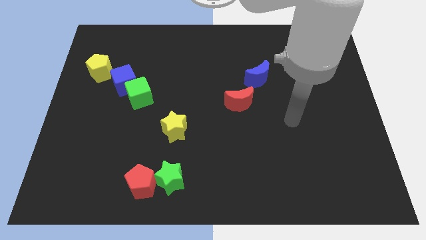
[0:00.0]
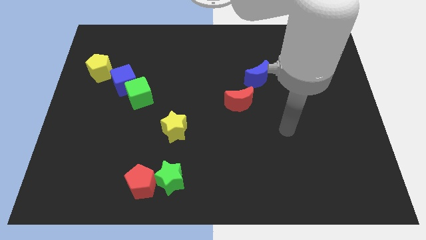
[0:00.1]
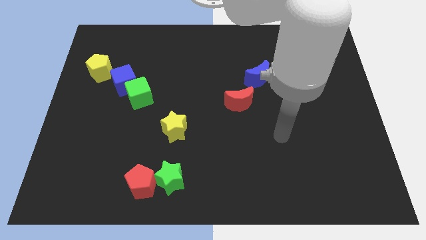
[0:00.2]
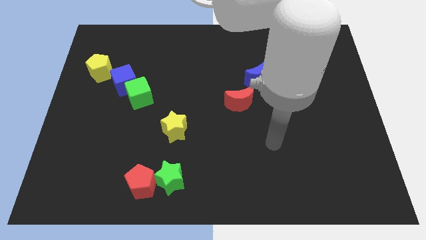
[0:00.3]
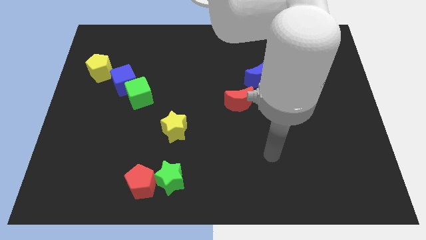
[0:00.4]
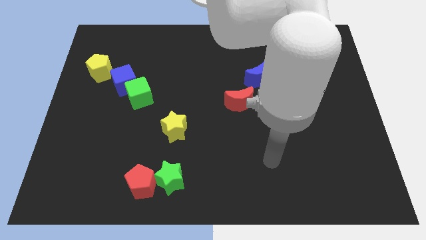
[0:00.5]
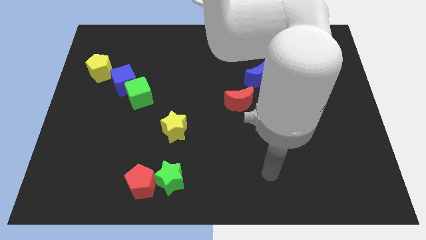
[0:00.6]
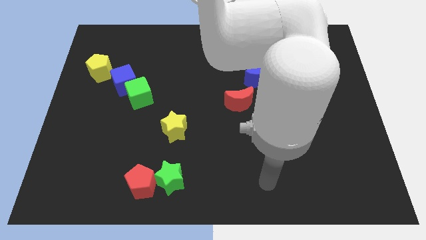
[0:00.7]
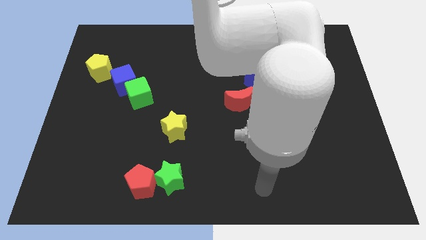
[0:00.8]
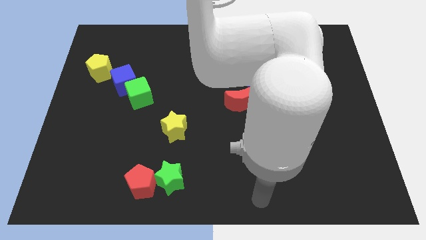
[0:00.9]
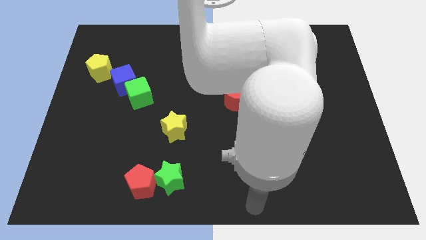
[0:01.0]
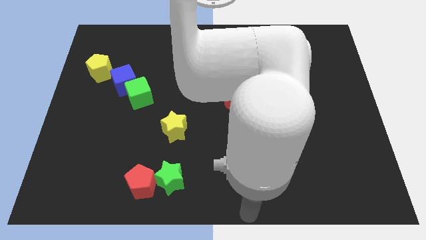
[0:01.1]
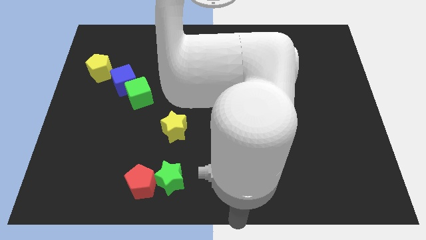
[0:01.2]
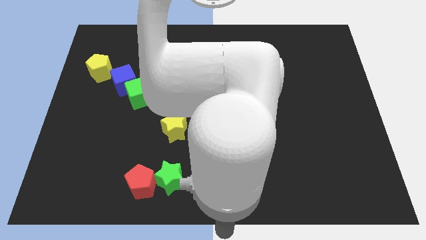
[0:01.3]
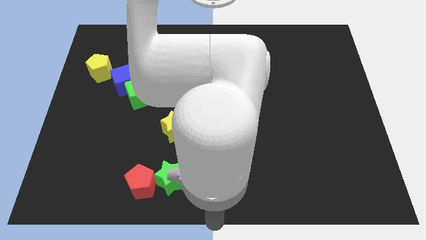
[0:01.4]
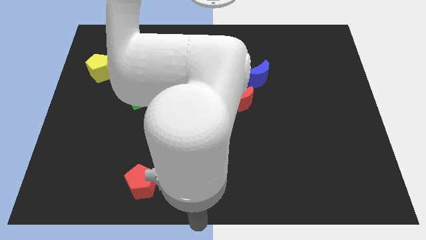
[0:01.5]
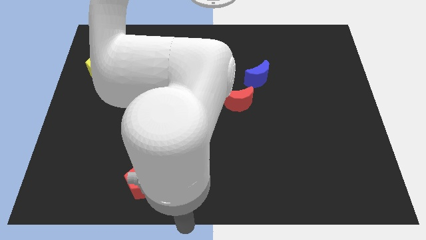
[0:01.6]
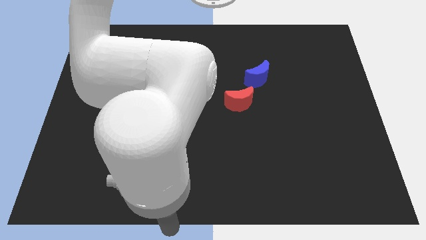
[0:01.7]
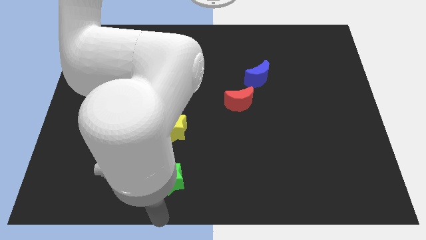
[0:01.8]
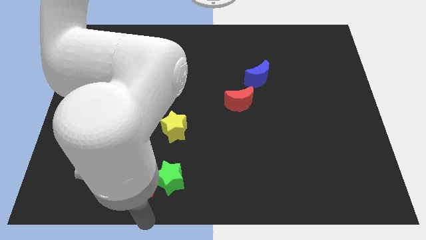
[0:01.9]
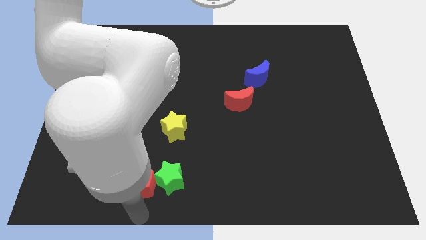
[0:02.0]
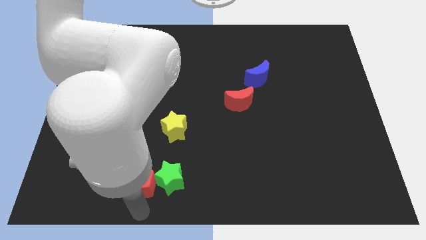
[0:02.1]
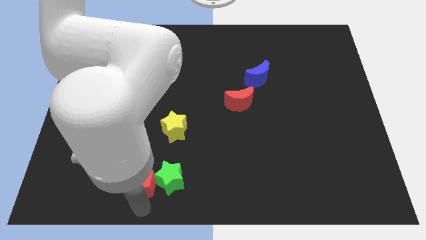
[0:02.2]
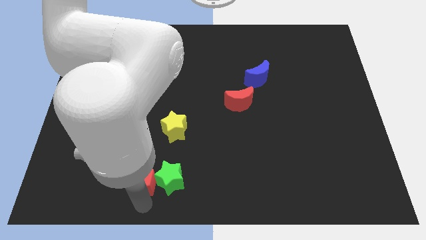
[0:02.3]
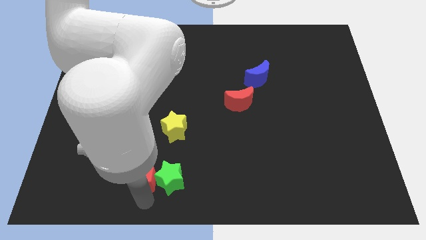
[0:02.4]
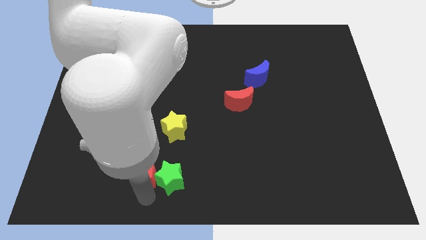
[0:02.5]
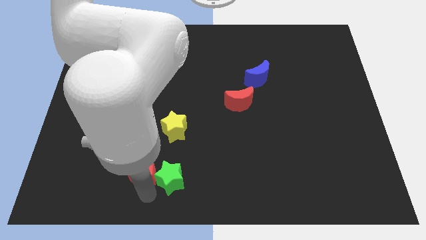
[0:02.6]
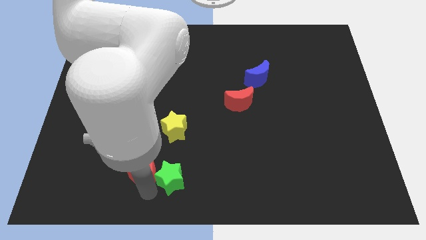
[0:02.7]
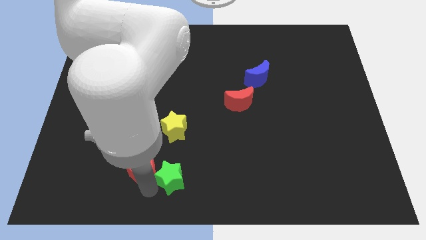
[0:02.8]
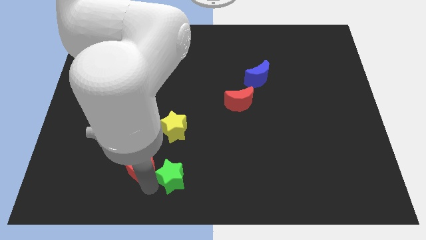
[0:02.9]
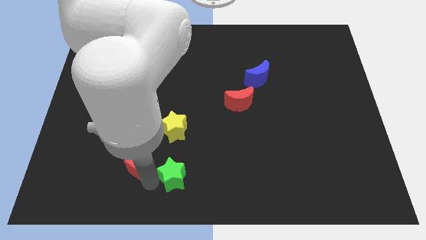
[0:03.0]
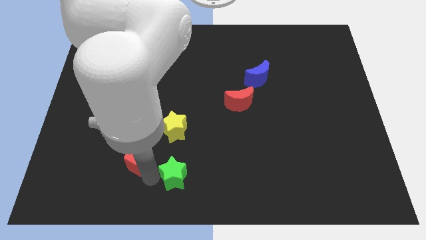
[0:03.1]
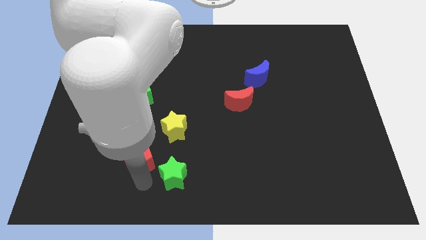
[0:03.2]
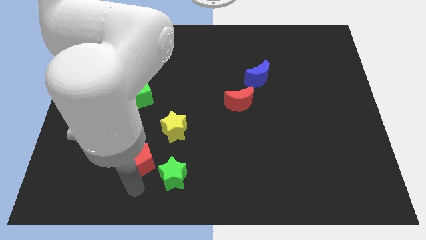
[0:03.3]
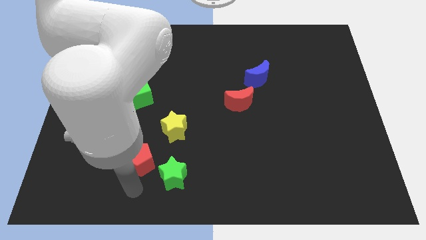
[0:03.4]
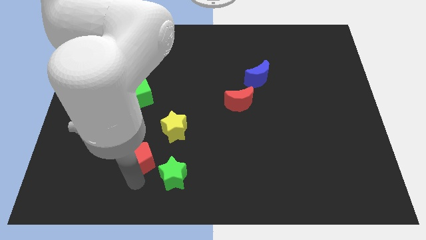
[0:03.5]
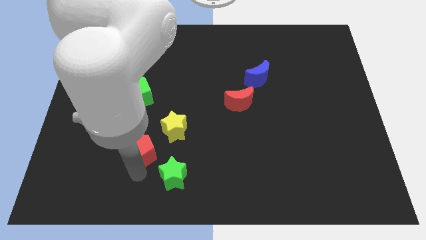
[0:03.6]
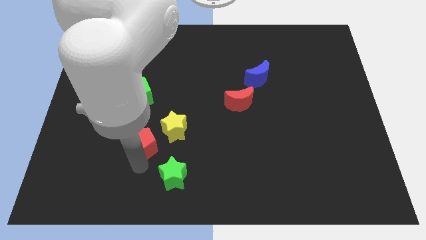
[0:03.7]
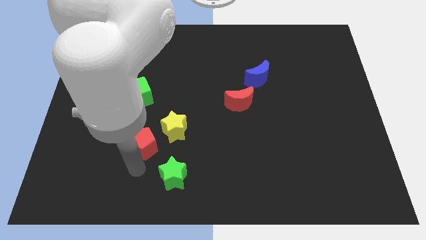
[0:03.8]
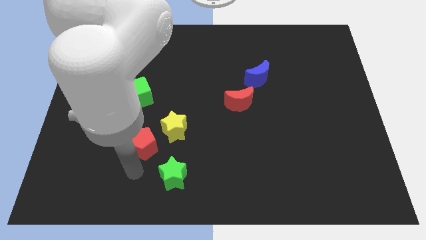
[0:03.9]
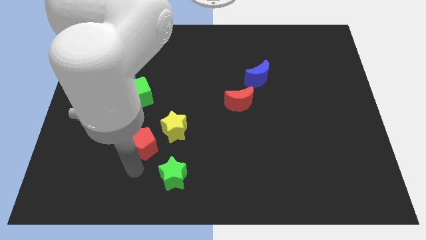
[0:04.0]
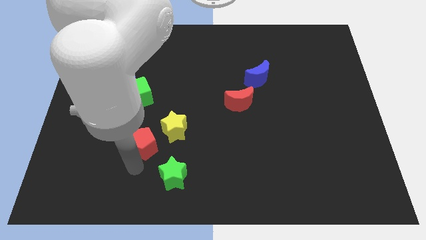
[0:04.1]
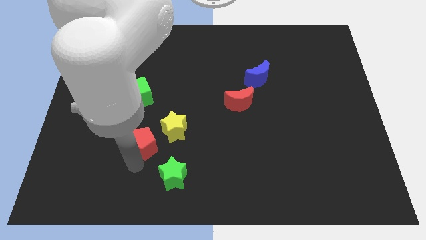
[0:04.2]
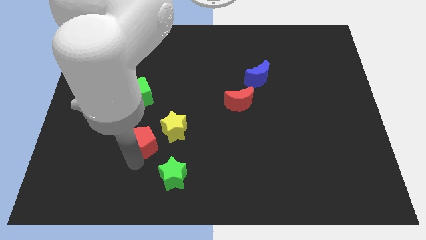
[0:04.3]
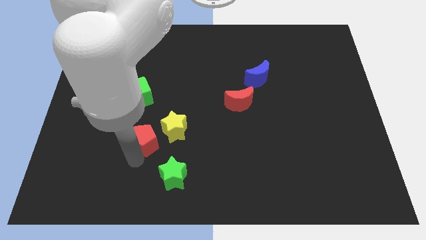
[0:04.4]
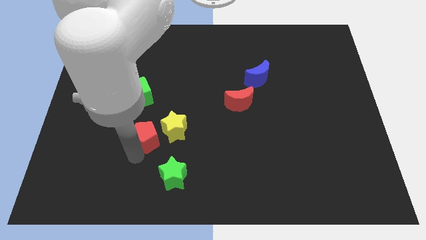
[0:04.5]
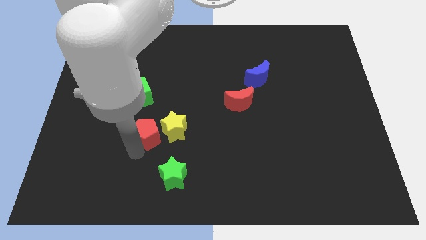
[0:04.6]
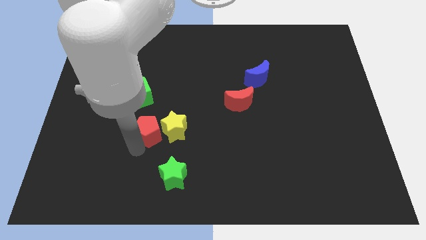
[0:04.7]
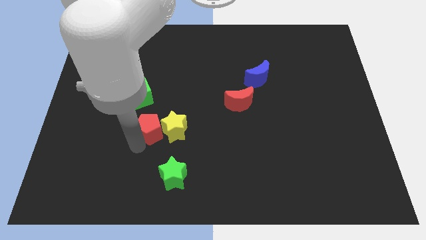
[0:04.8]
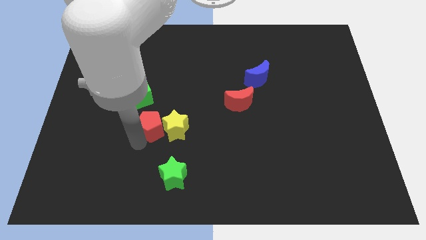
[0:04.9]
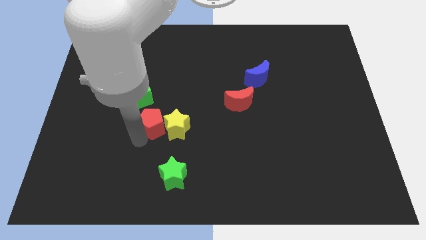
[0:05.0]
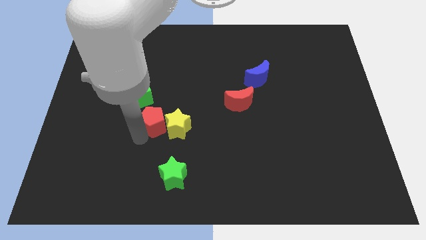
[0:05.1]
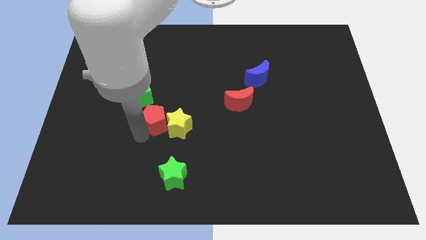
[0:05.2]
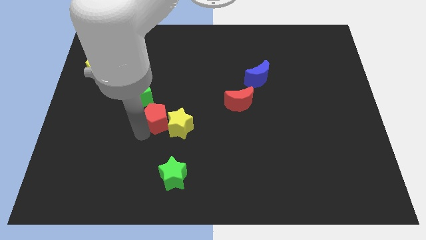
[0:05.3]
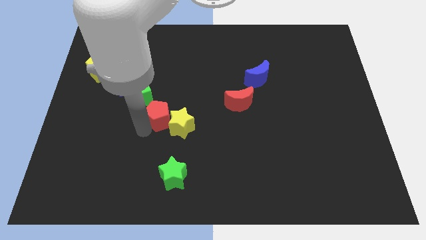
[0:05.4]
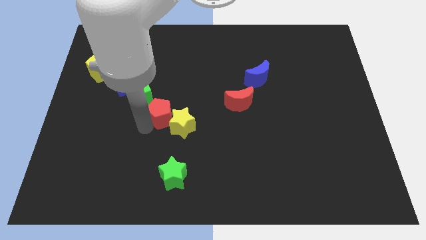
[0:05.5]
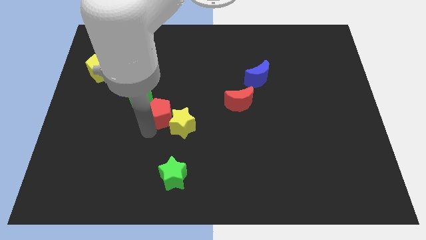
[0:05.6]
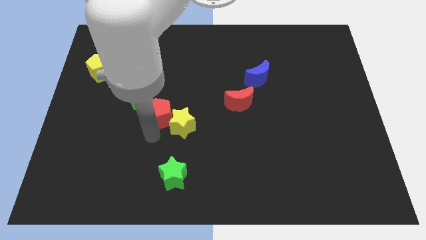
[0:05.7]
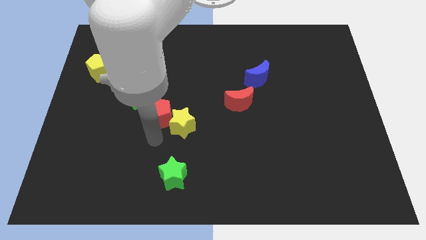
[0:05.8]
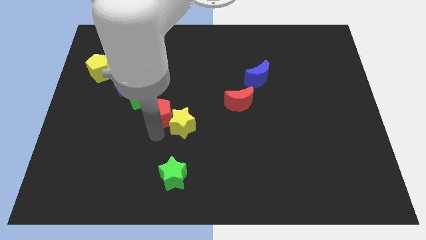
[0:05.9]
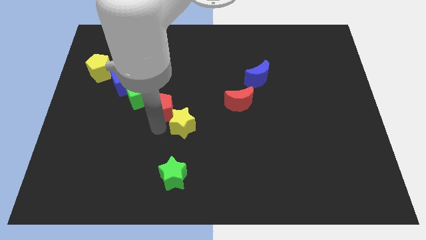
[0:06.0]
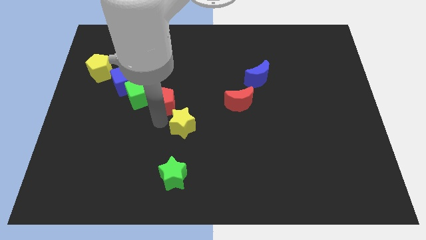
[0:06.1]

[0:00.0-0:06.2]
slide the red pentagon upwards

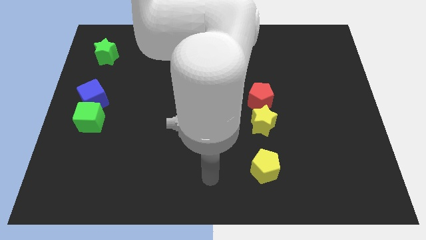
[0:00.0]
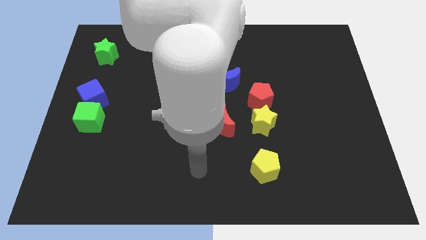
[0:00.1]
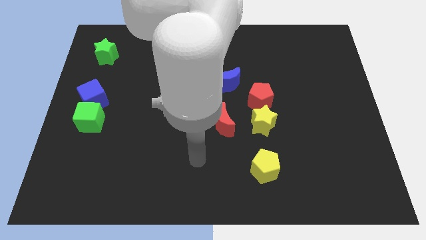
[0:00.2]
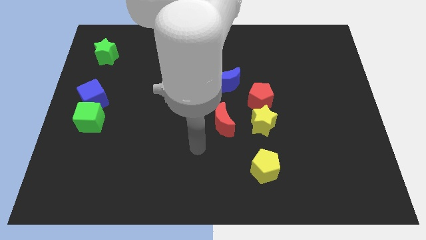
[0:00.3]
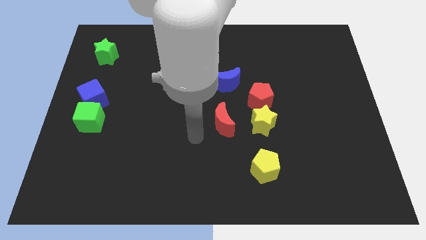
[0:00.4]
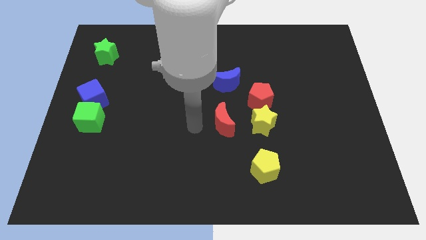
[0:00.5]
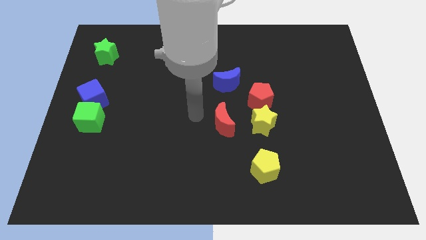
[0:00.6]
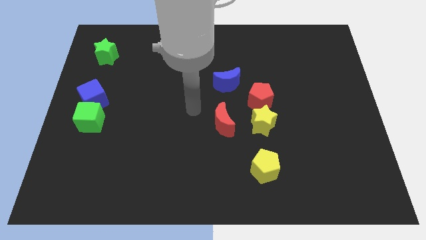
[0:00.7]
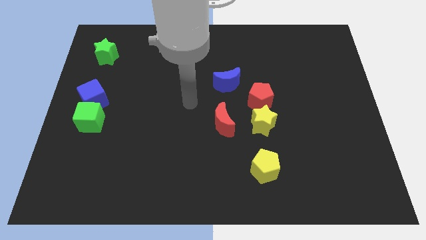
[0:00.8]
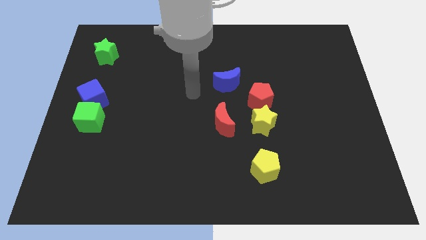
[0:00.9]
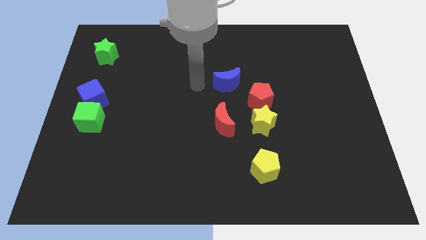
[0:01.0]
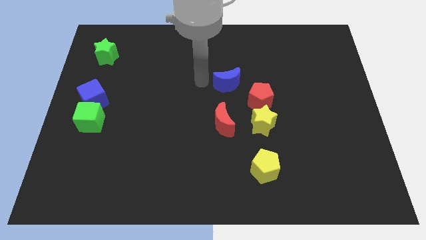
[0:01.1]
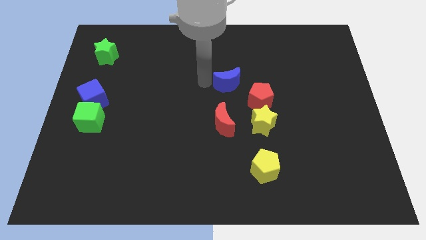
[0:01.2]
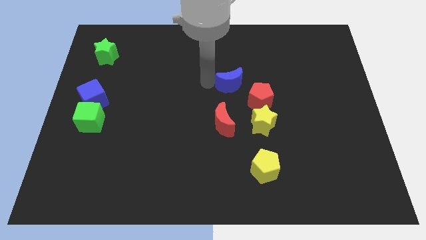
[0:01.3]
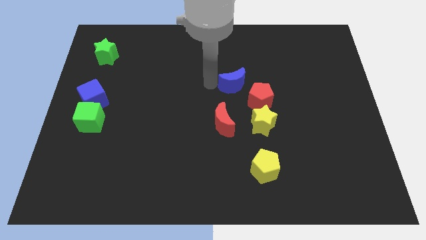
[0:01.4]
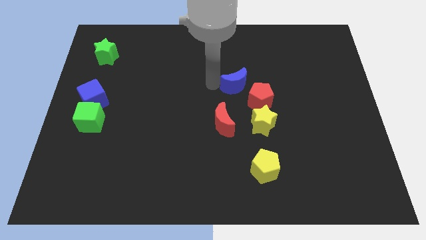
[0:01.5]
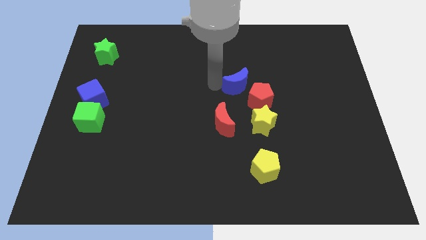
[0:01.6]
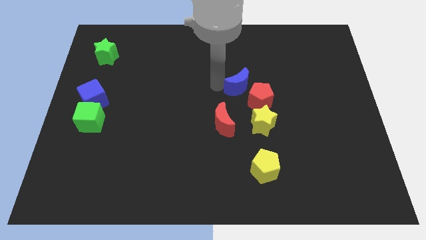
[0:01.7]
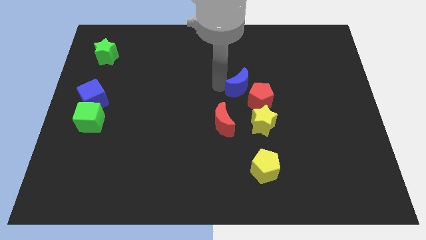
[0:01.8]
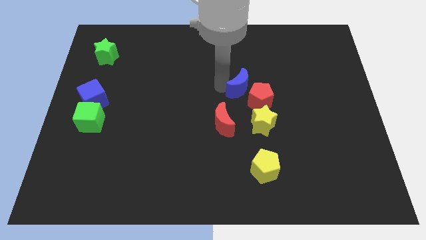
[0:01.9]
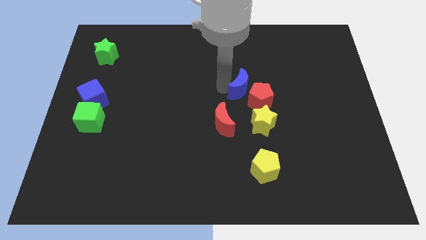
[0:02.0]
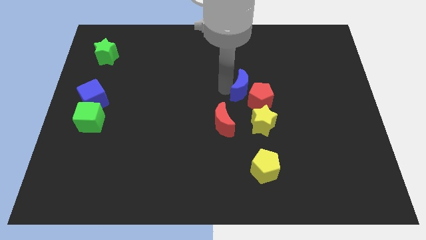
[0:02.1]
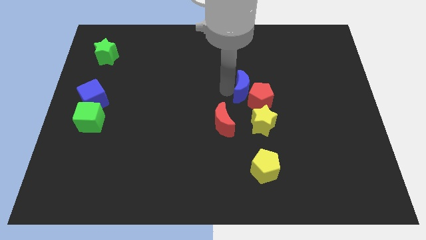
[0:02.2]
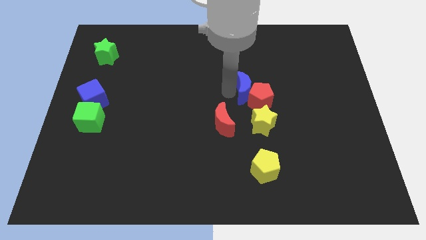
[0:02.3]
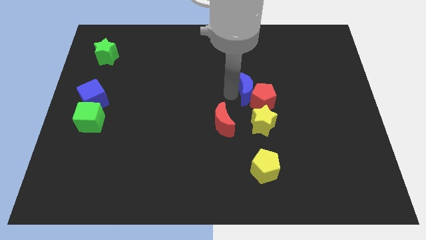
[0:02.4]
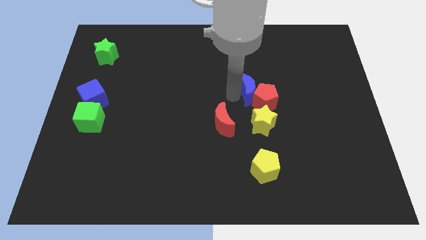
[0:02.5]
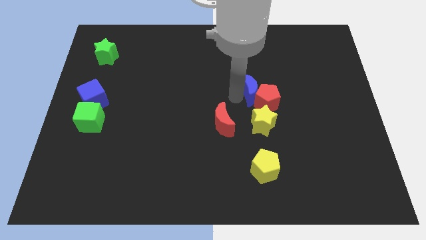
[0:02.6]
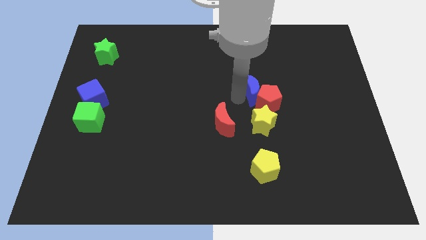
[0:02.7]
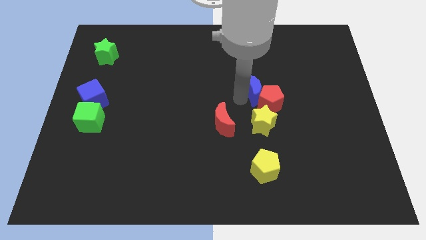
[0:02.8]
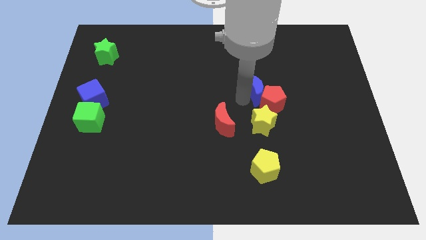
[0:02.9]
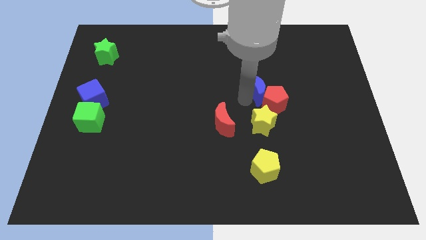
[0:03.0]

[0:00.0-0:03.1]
slightly move the blue moon right
